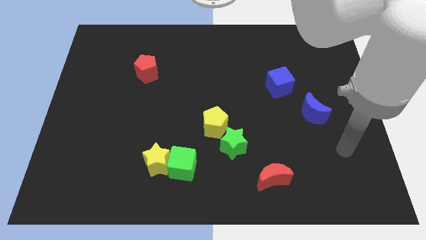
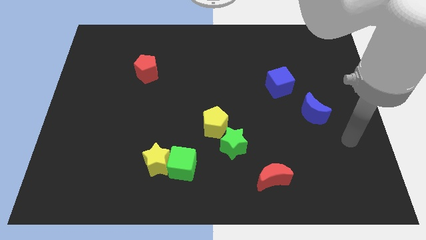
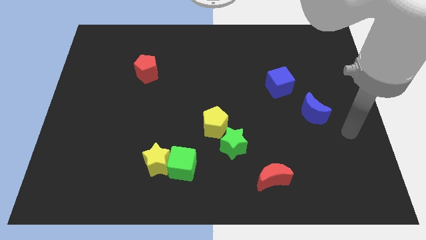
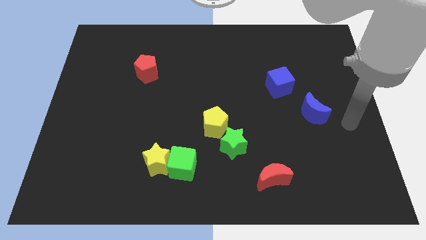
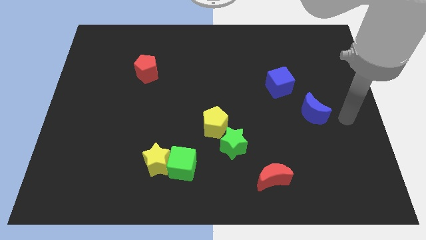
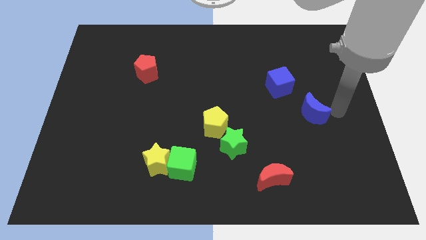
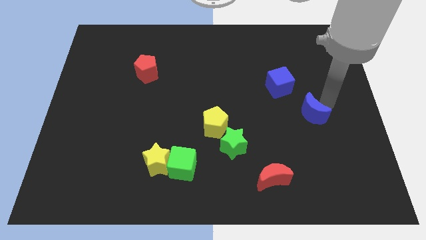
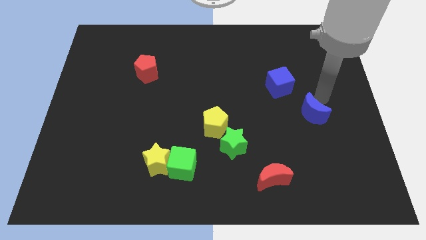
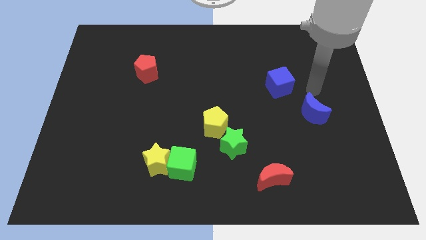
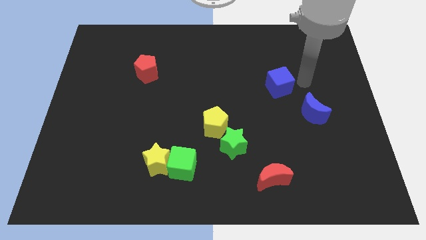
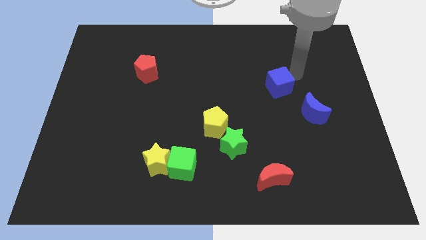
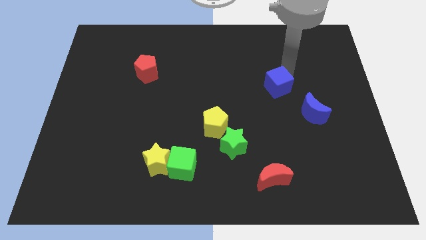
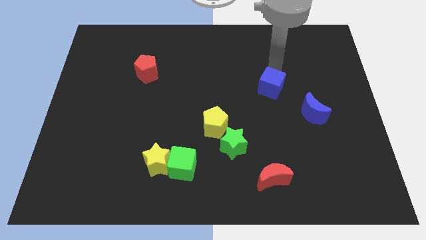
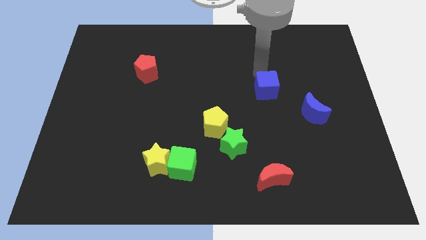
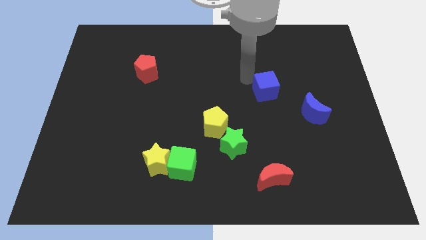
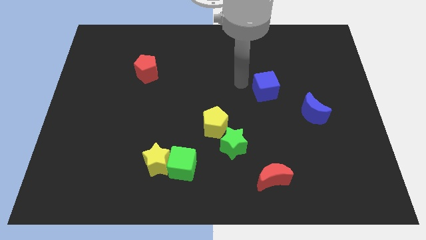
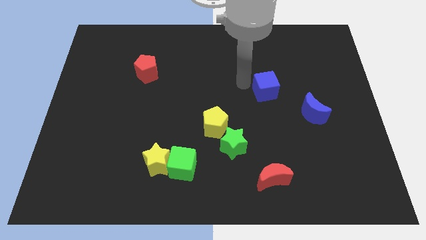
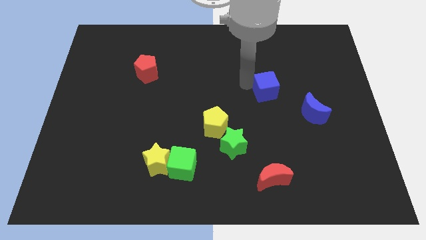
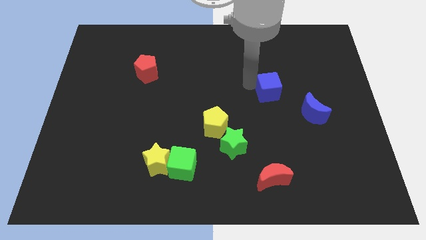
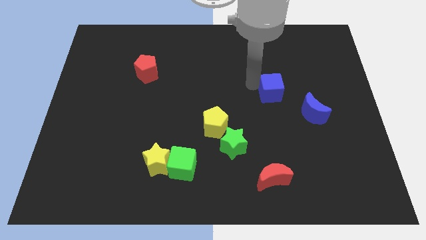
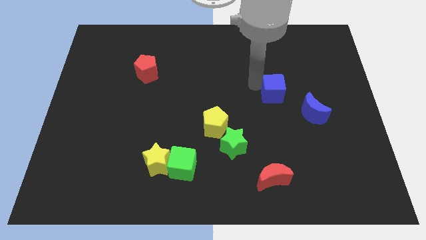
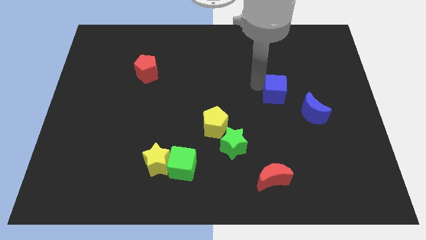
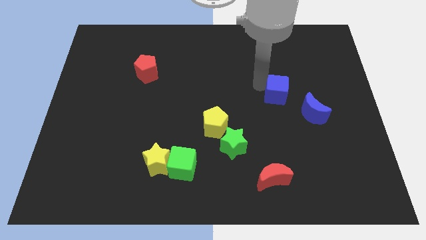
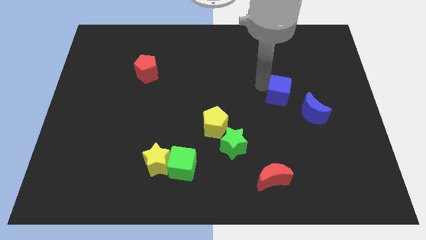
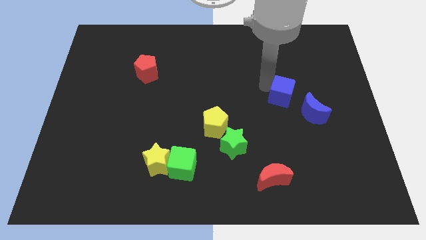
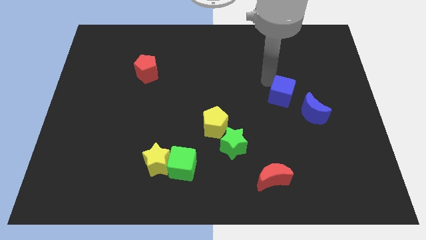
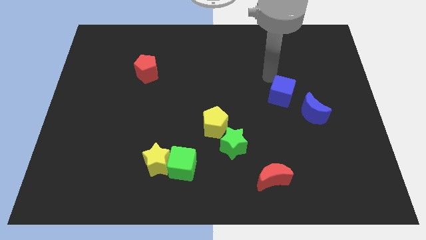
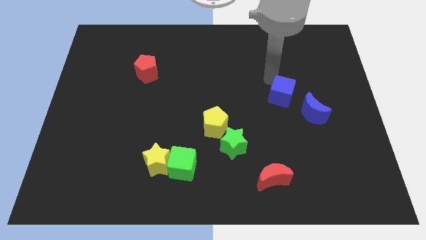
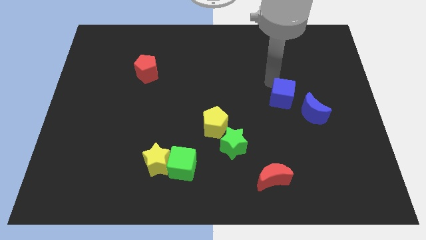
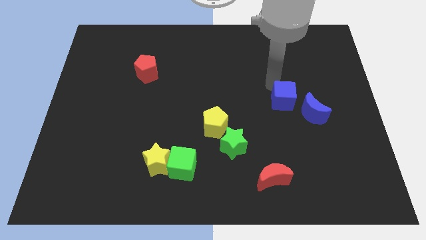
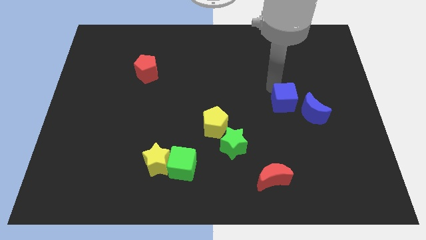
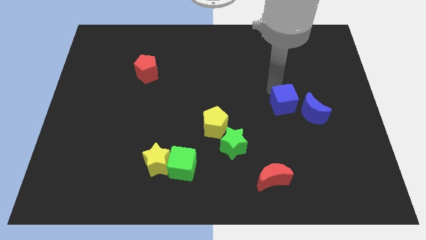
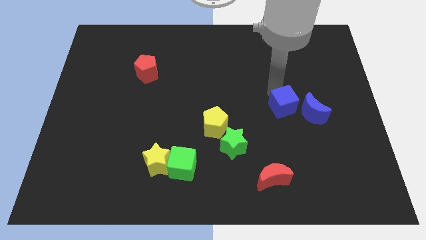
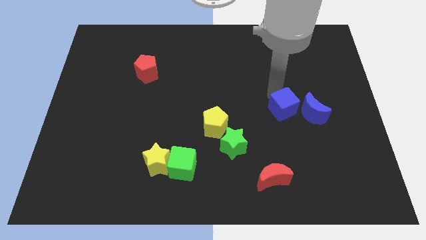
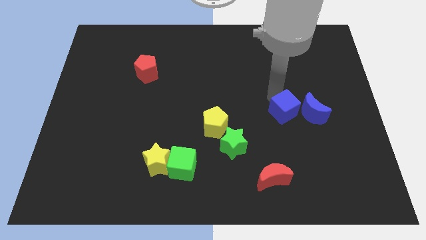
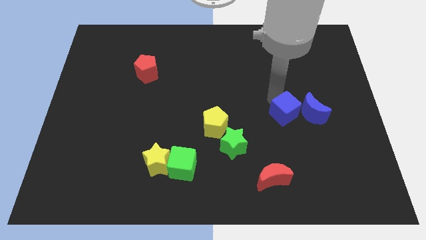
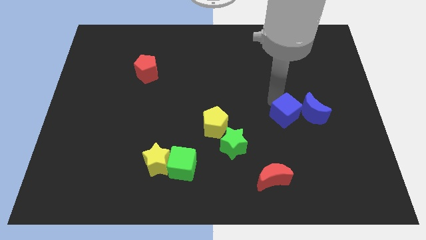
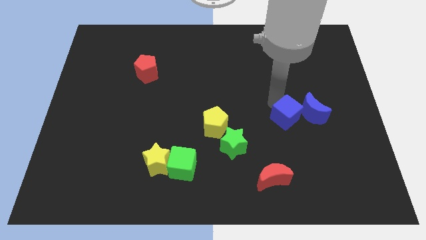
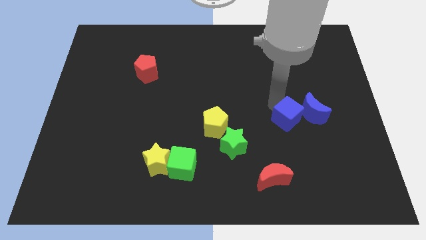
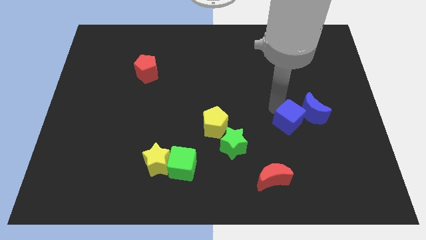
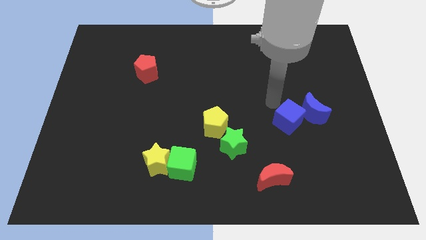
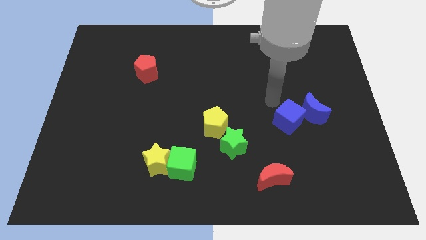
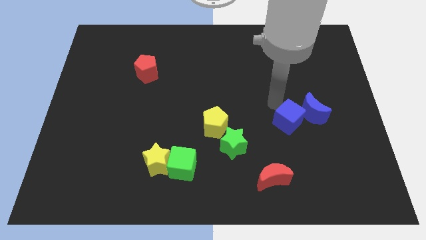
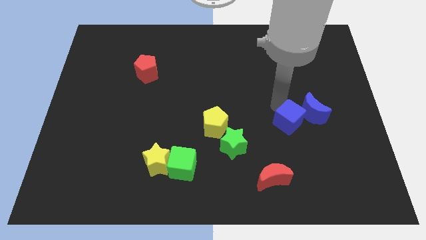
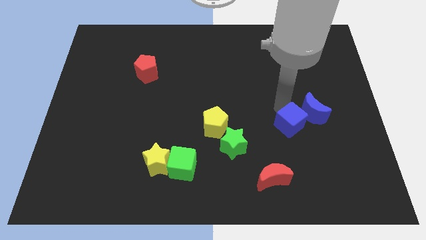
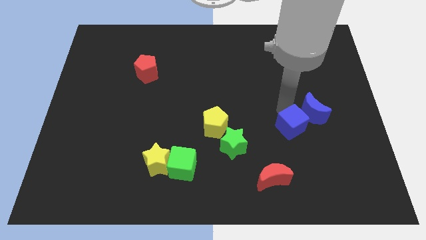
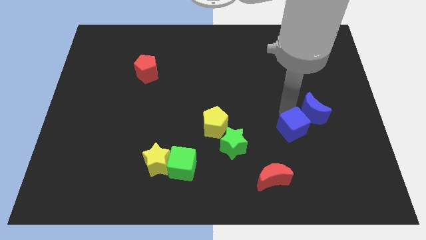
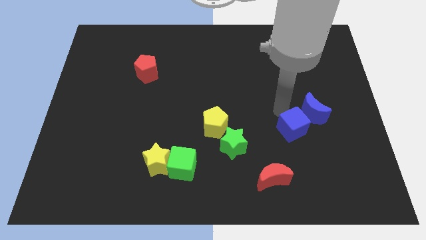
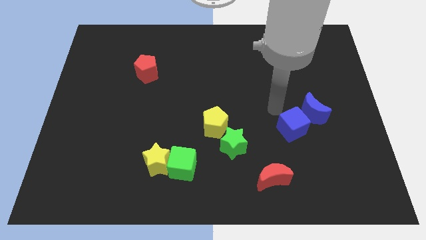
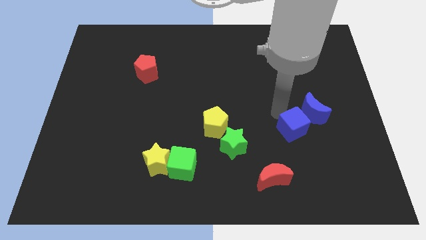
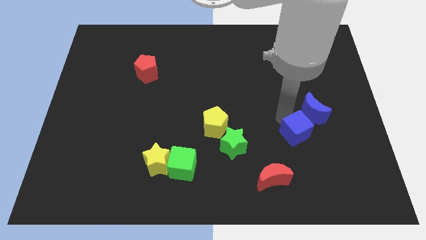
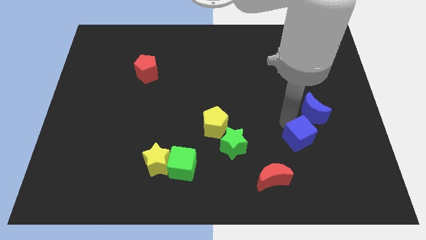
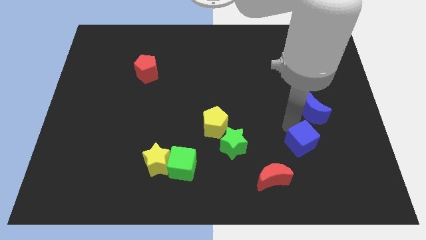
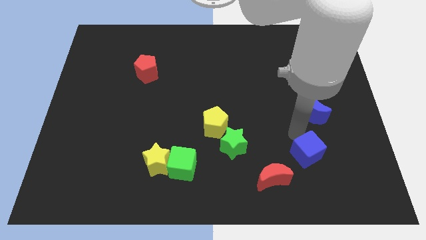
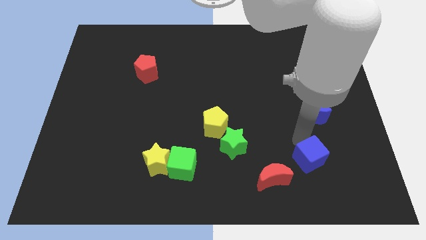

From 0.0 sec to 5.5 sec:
slide the blue cube to the right of the red moon

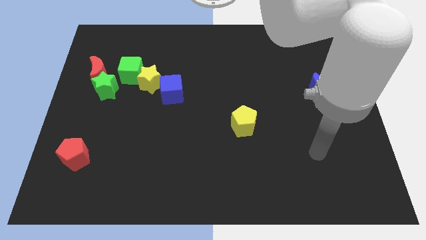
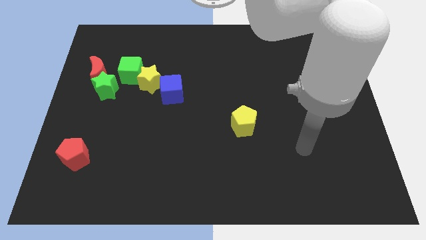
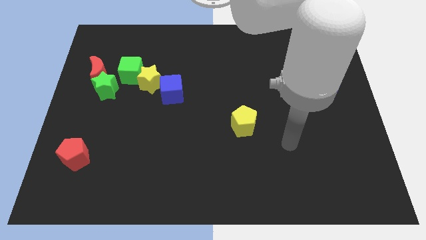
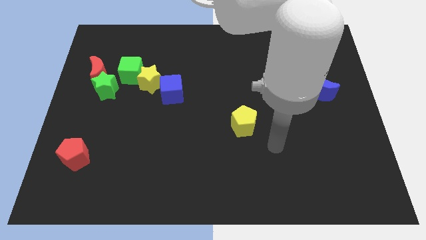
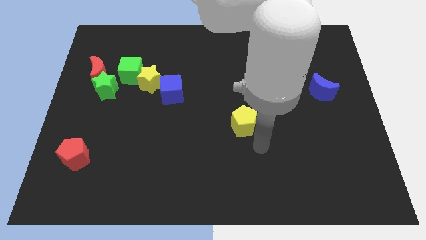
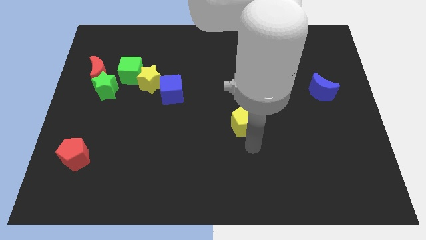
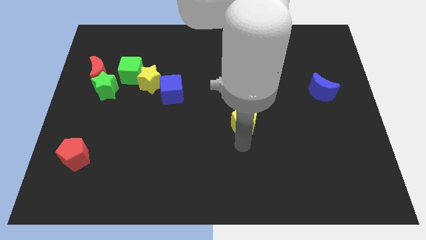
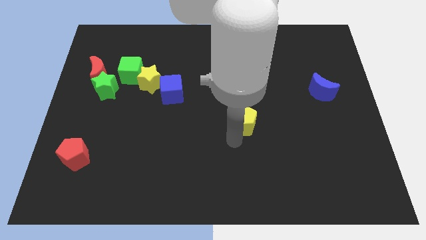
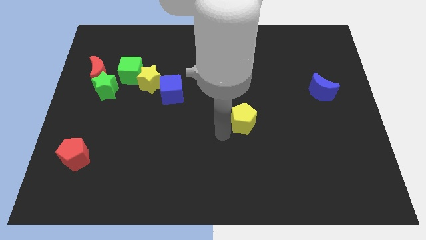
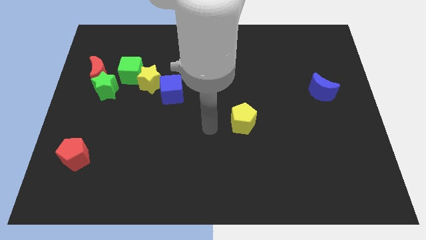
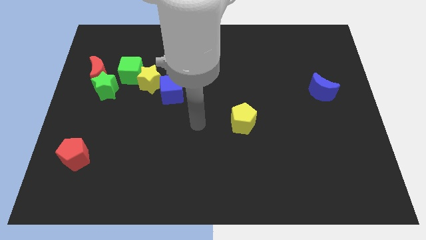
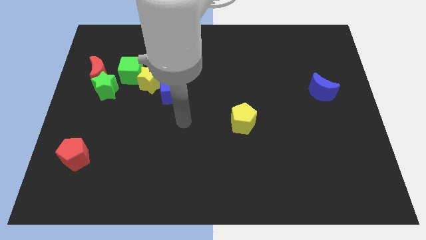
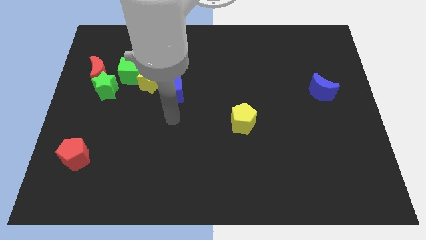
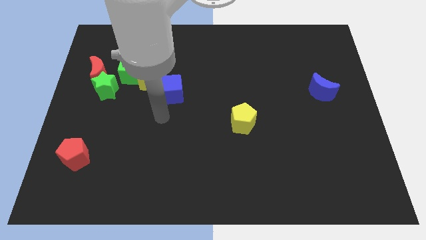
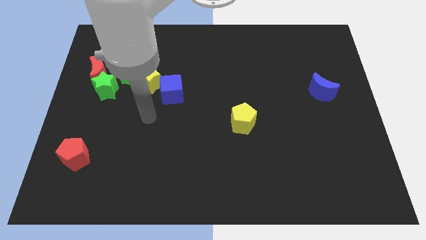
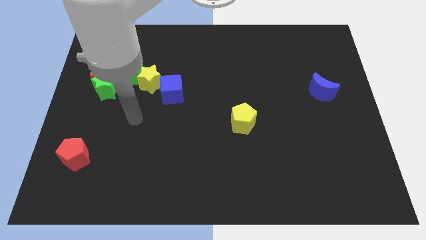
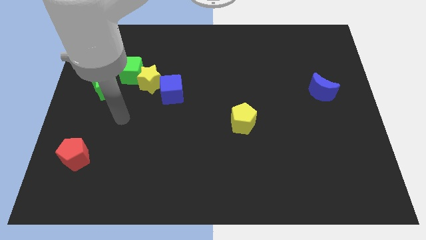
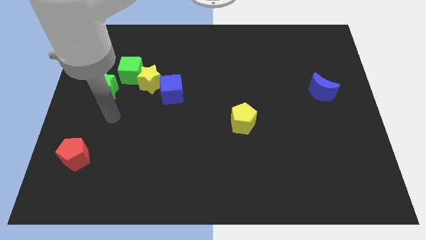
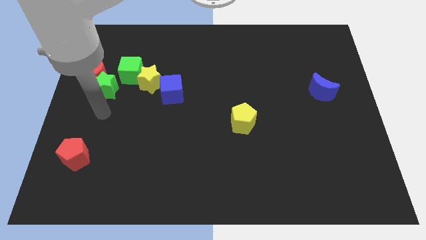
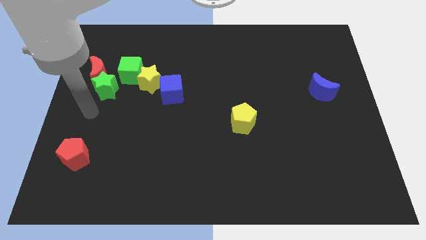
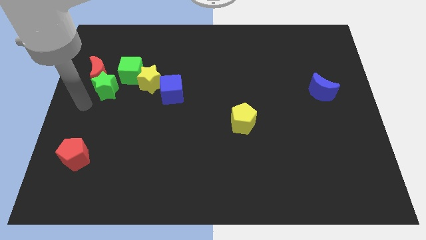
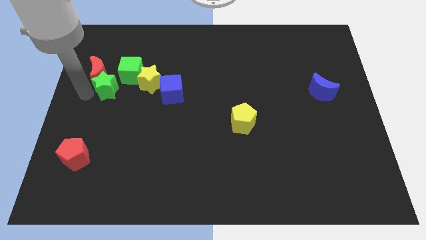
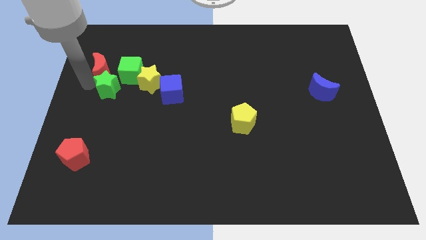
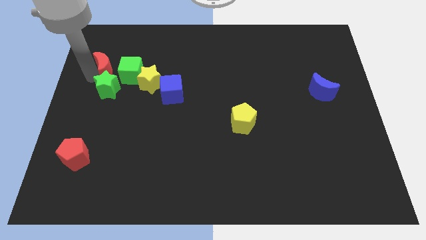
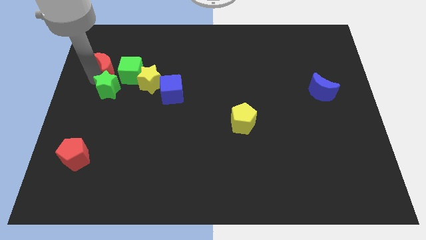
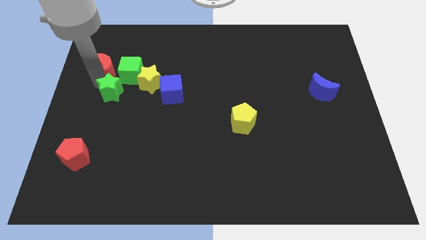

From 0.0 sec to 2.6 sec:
put the green star to the bottom side of the green cube
